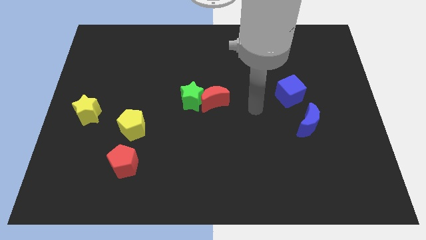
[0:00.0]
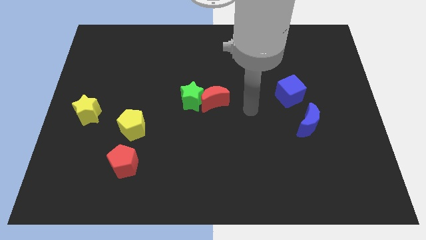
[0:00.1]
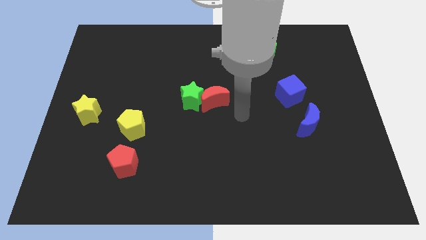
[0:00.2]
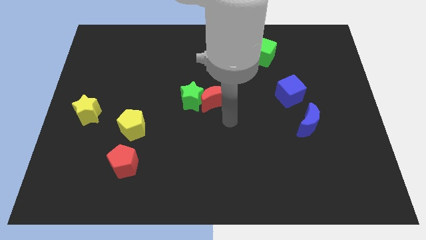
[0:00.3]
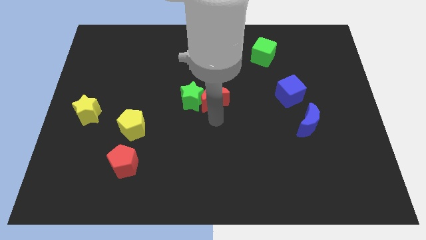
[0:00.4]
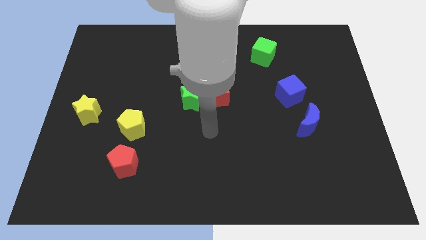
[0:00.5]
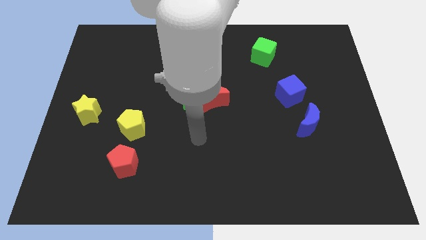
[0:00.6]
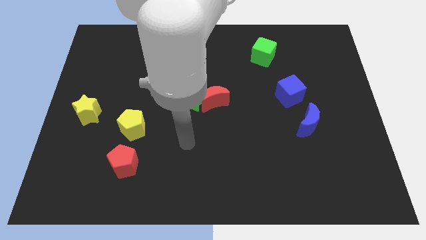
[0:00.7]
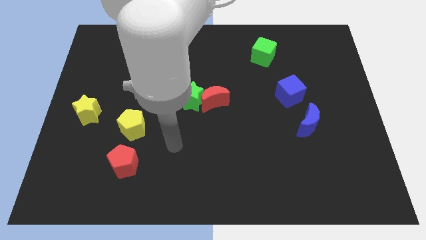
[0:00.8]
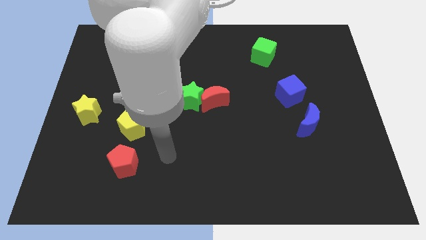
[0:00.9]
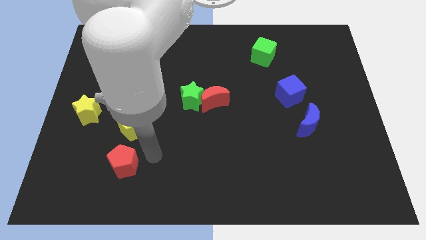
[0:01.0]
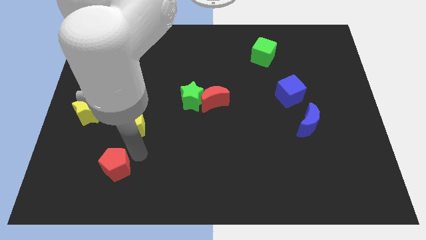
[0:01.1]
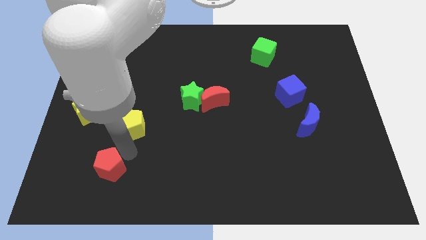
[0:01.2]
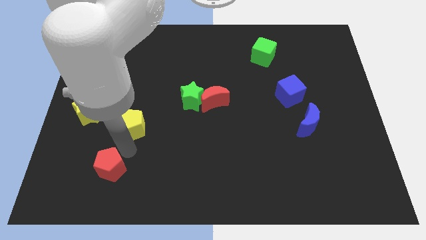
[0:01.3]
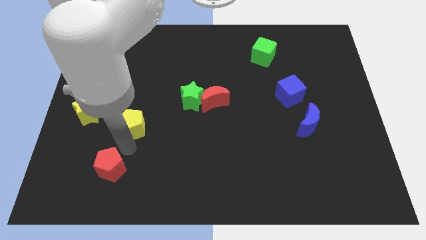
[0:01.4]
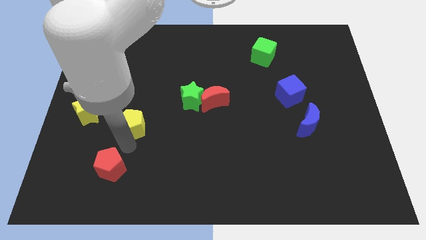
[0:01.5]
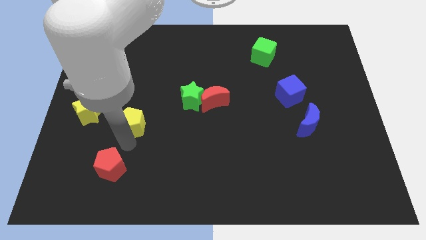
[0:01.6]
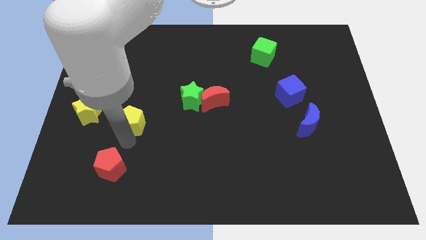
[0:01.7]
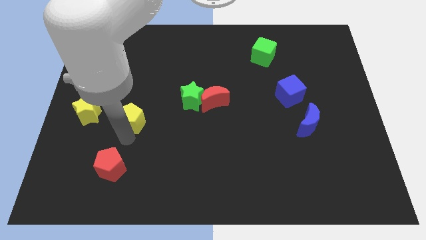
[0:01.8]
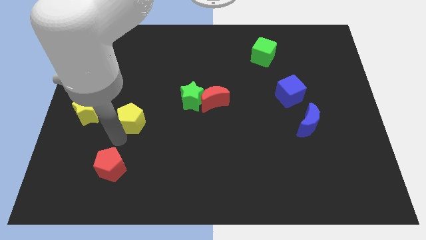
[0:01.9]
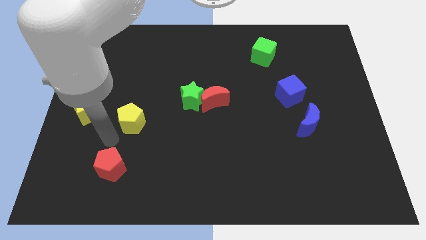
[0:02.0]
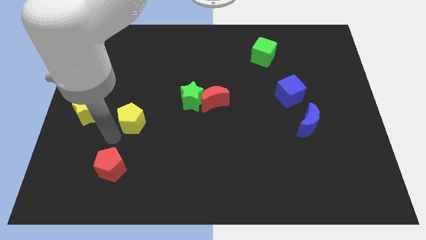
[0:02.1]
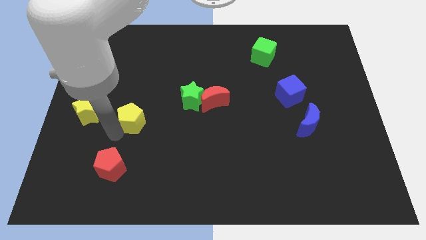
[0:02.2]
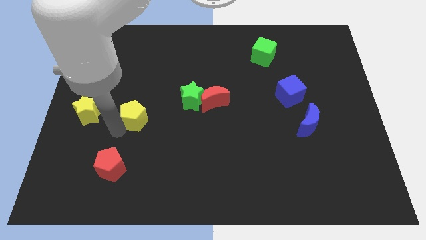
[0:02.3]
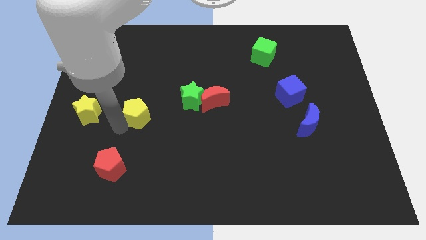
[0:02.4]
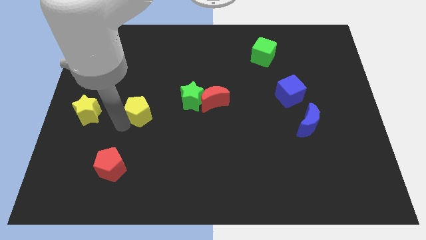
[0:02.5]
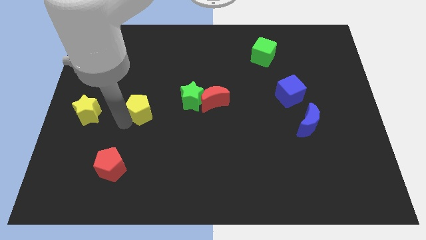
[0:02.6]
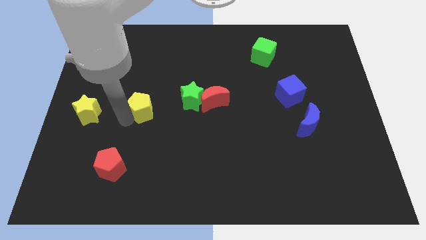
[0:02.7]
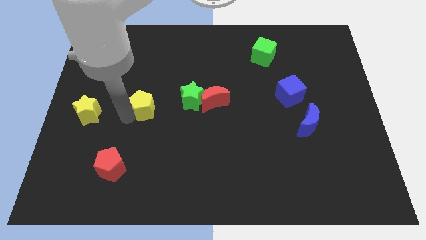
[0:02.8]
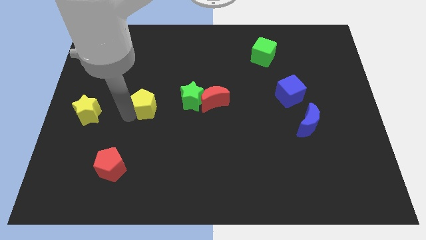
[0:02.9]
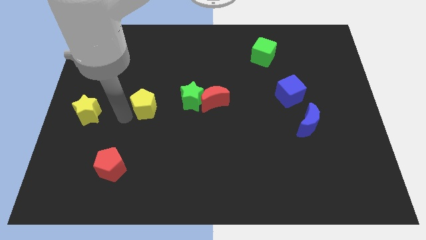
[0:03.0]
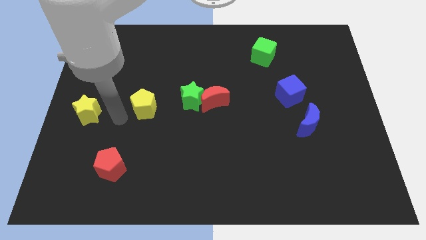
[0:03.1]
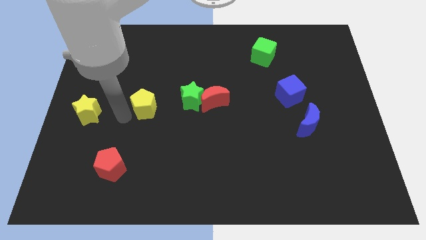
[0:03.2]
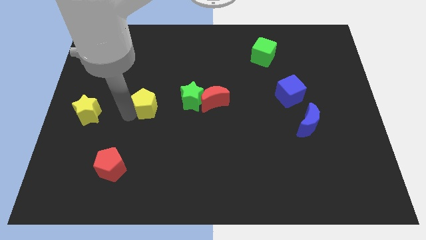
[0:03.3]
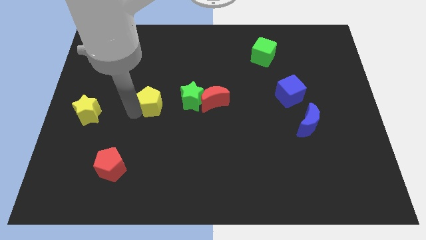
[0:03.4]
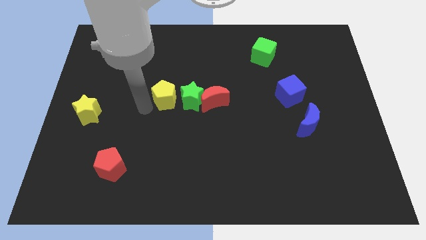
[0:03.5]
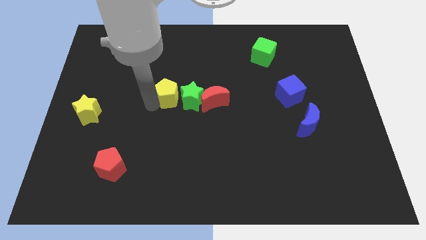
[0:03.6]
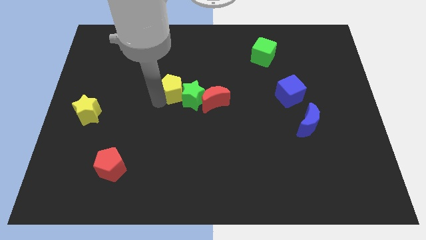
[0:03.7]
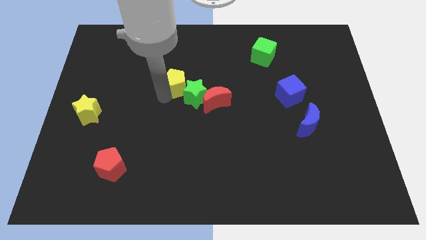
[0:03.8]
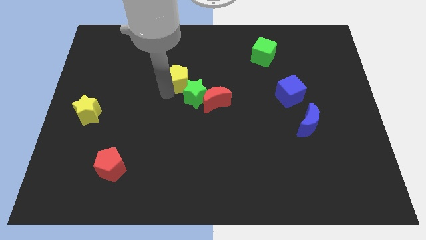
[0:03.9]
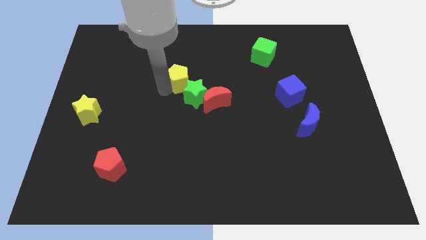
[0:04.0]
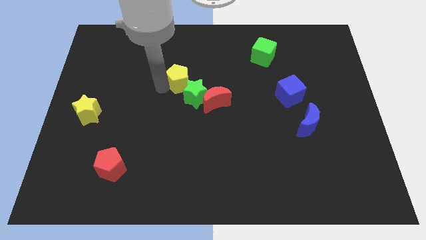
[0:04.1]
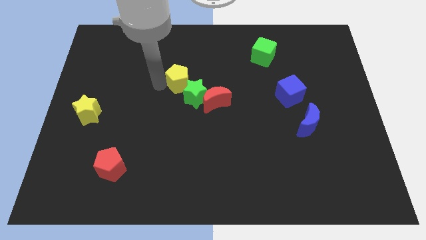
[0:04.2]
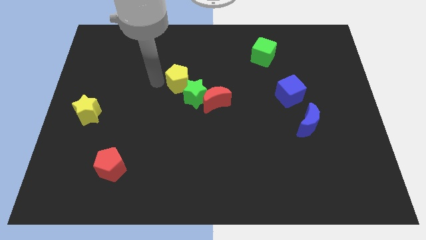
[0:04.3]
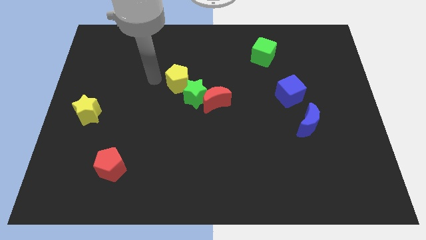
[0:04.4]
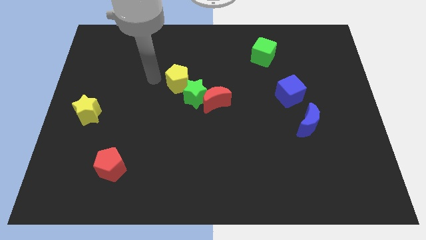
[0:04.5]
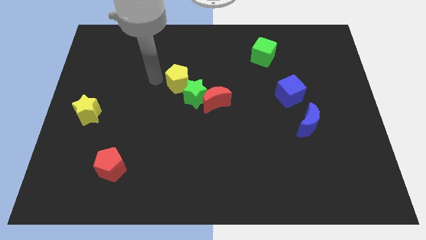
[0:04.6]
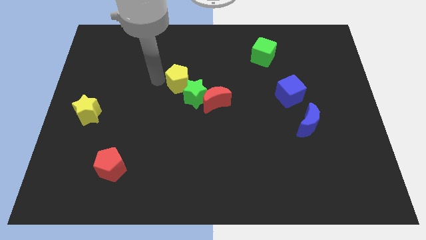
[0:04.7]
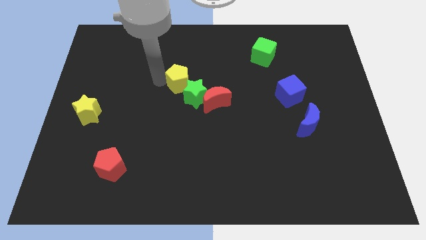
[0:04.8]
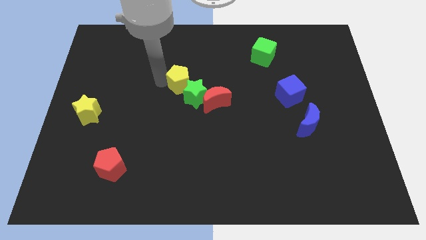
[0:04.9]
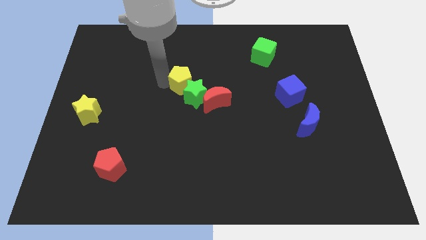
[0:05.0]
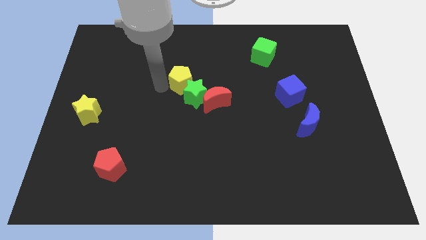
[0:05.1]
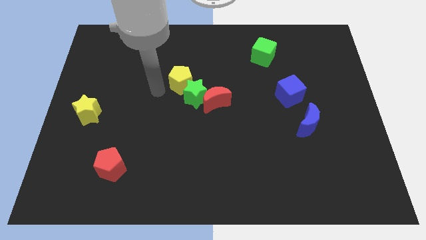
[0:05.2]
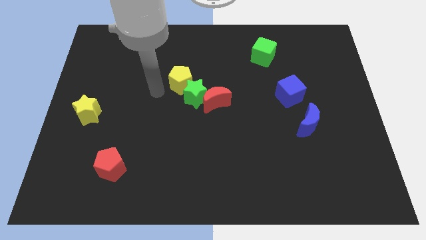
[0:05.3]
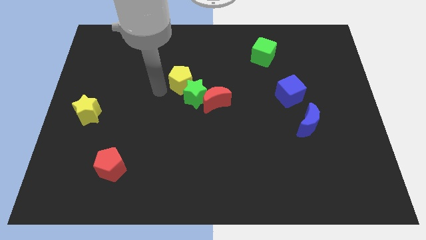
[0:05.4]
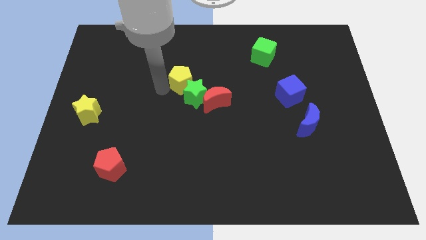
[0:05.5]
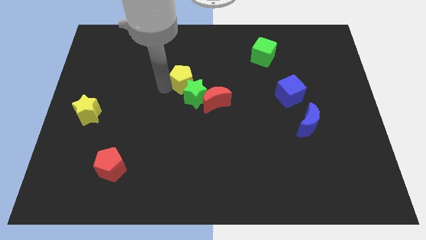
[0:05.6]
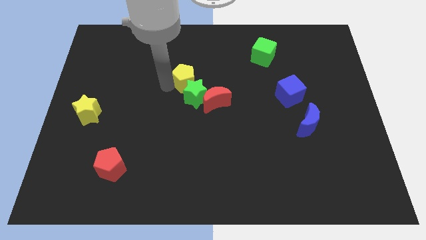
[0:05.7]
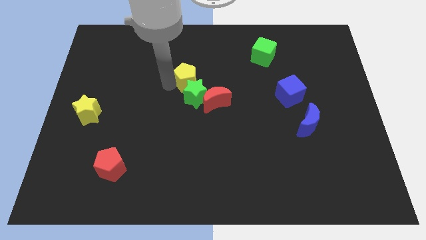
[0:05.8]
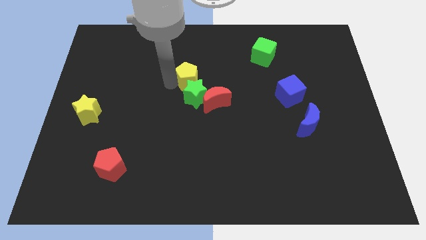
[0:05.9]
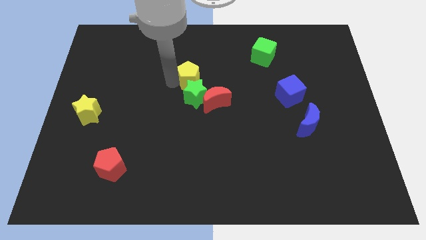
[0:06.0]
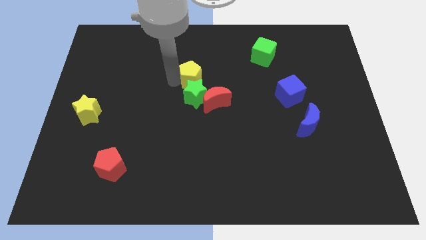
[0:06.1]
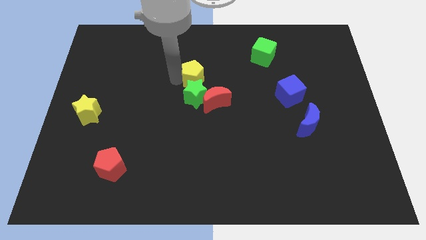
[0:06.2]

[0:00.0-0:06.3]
push the yellow pentagon up and then right

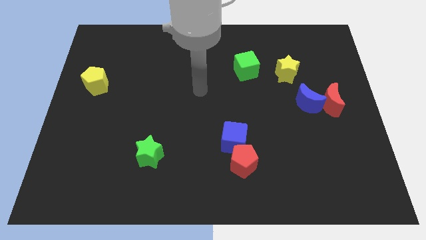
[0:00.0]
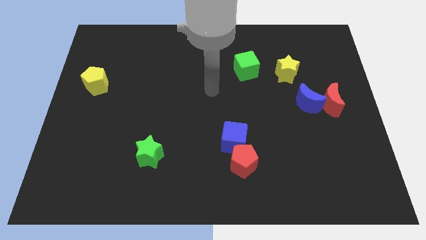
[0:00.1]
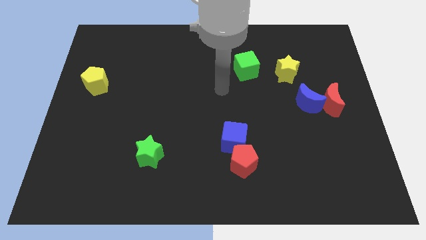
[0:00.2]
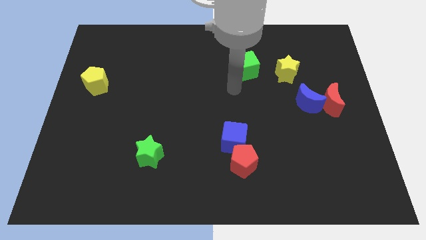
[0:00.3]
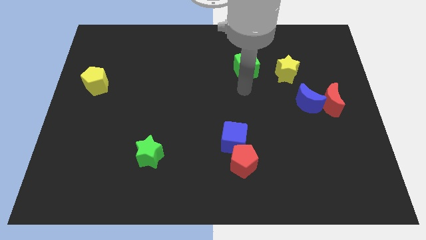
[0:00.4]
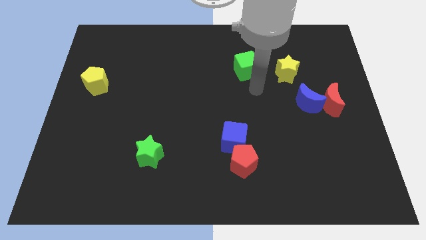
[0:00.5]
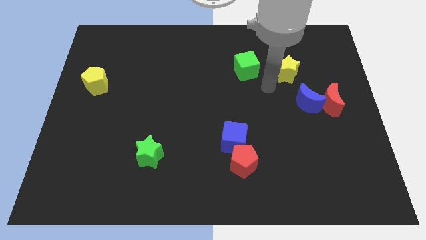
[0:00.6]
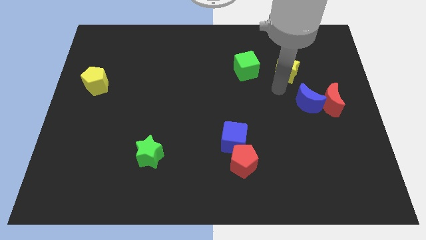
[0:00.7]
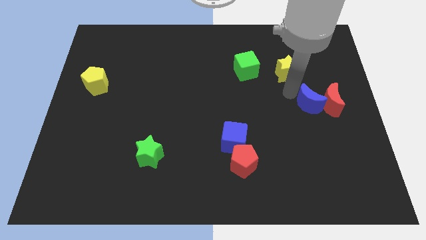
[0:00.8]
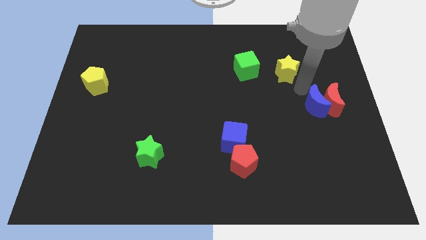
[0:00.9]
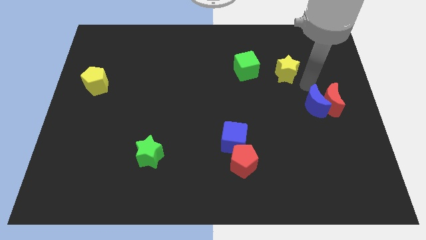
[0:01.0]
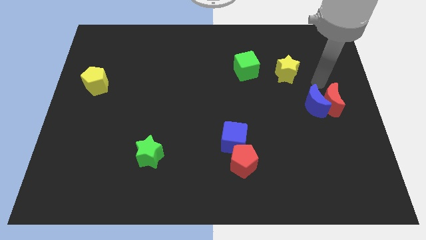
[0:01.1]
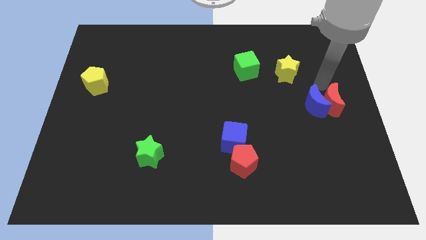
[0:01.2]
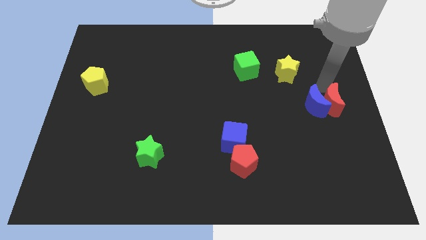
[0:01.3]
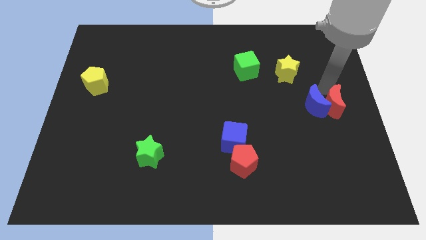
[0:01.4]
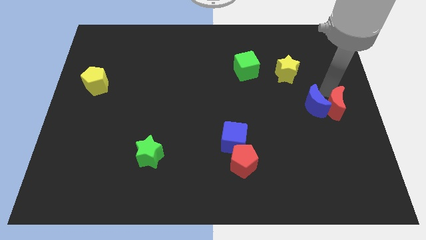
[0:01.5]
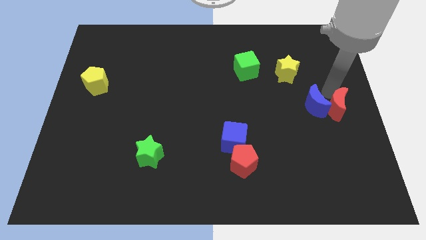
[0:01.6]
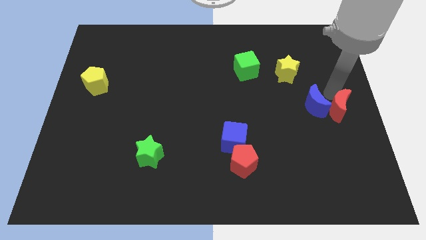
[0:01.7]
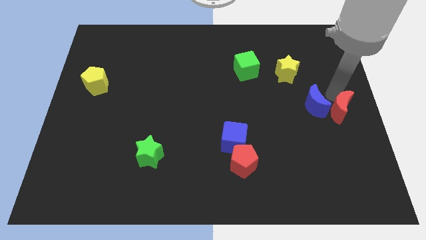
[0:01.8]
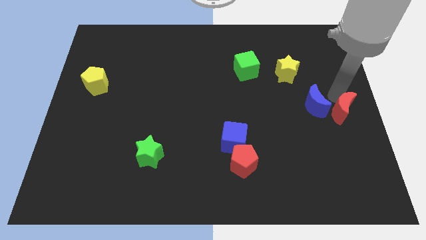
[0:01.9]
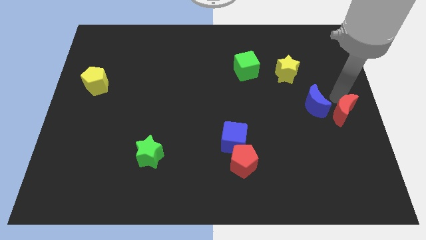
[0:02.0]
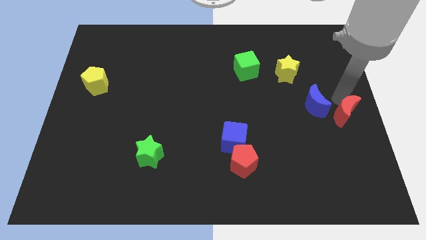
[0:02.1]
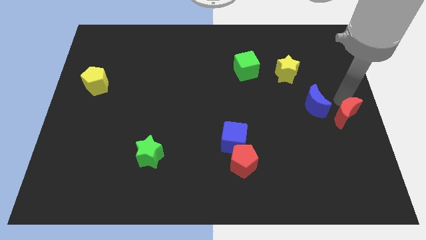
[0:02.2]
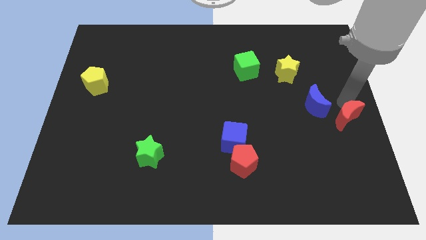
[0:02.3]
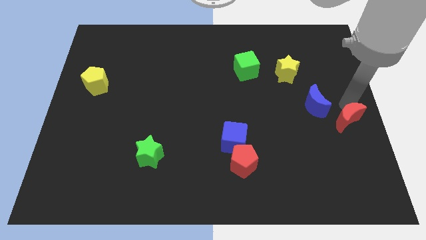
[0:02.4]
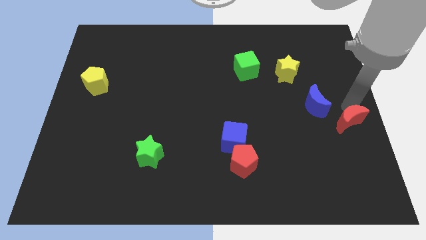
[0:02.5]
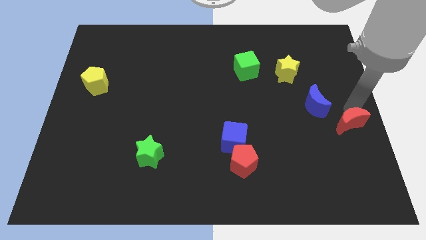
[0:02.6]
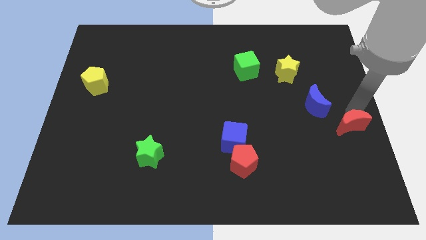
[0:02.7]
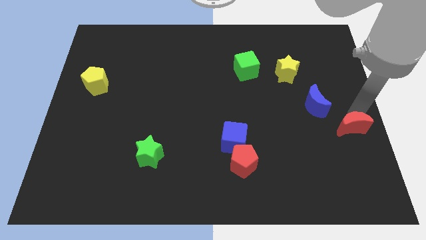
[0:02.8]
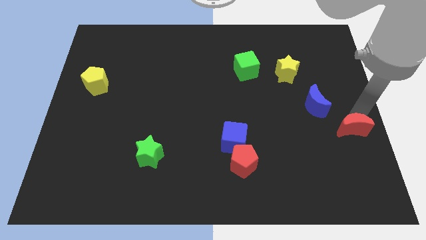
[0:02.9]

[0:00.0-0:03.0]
push the red moon slightly downwards
